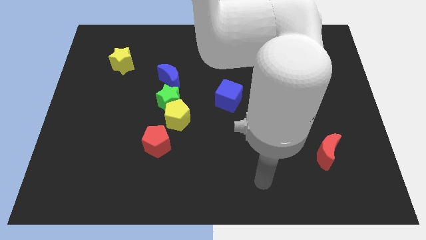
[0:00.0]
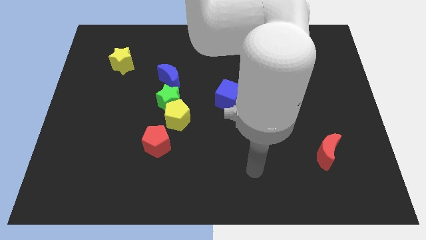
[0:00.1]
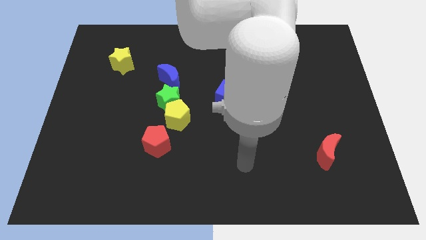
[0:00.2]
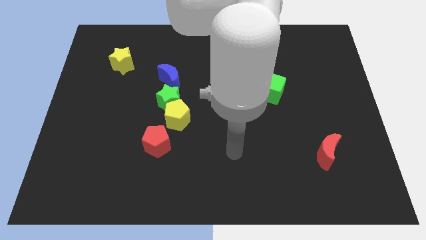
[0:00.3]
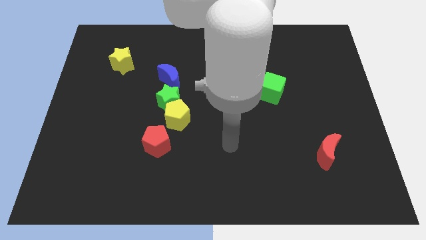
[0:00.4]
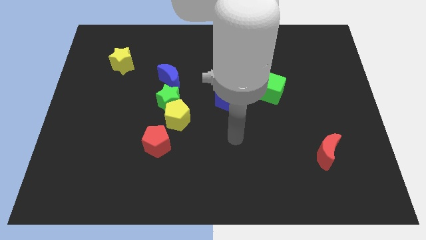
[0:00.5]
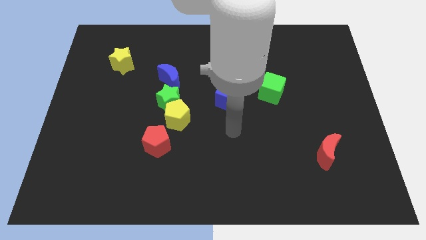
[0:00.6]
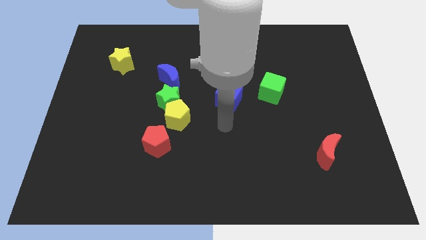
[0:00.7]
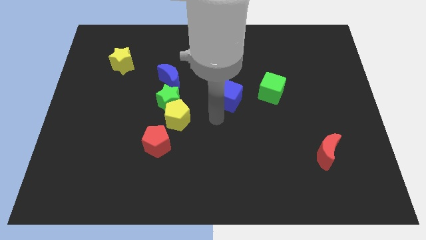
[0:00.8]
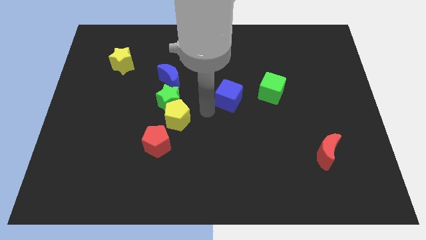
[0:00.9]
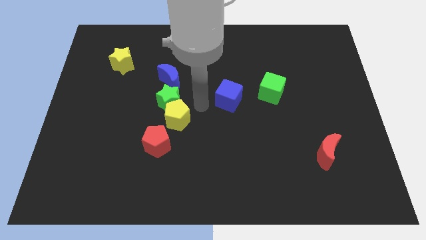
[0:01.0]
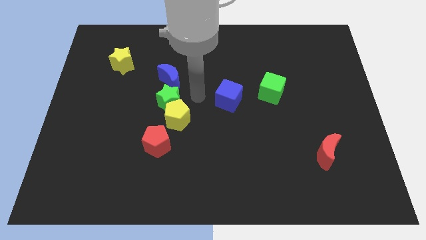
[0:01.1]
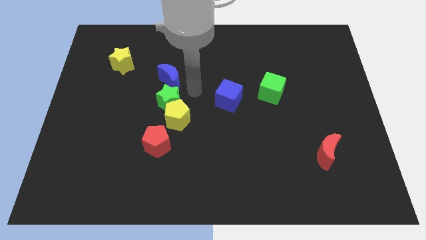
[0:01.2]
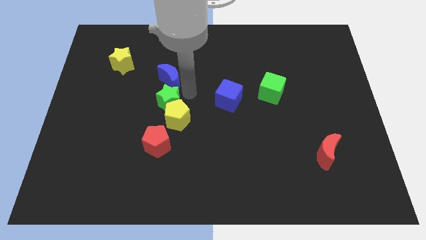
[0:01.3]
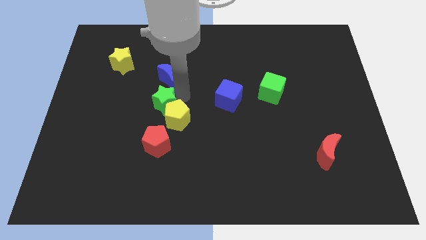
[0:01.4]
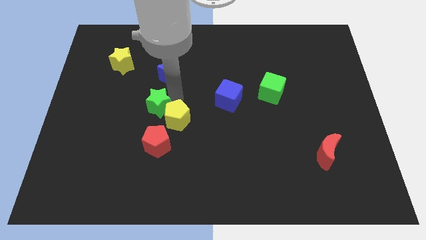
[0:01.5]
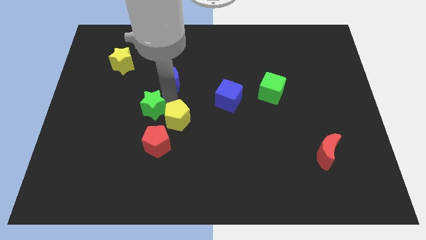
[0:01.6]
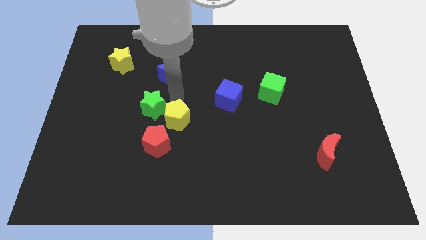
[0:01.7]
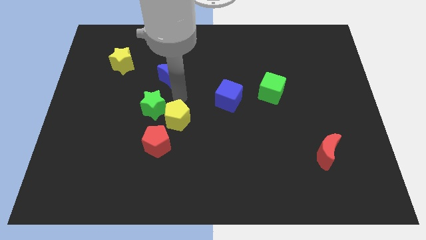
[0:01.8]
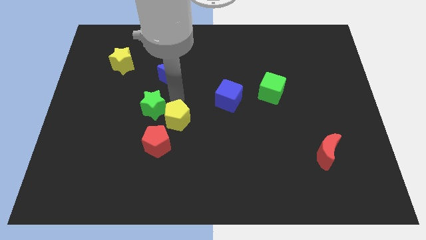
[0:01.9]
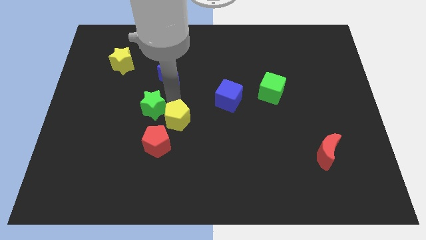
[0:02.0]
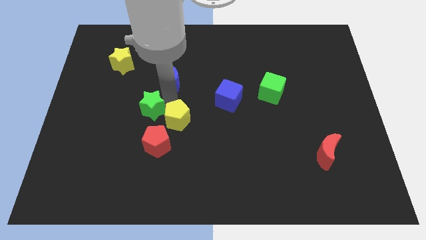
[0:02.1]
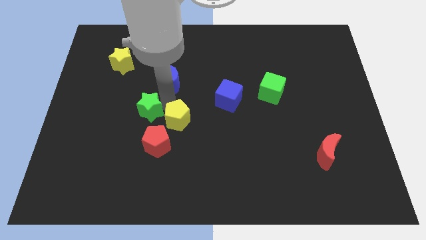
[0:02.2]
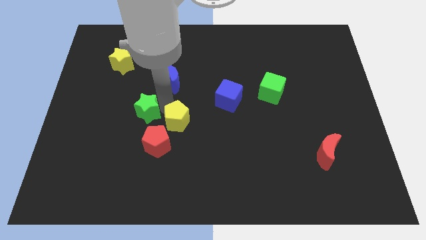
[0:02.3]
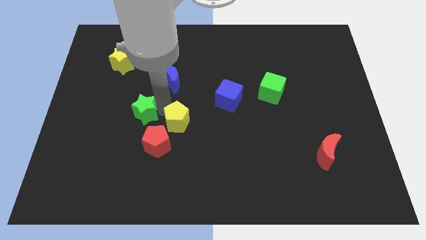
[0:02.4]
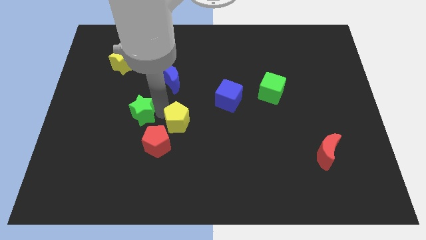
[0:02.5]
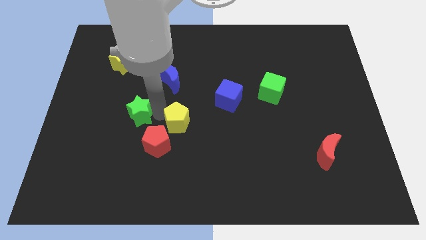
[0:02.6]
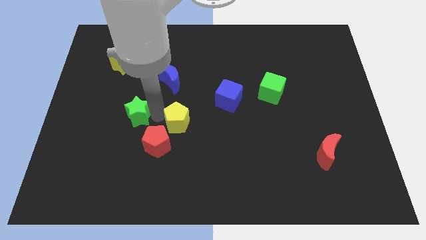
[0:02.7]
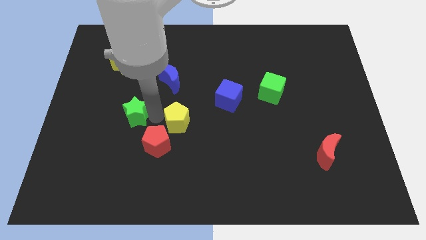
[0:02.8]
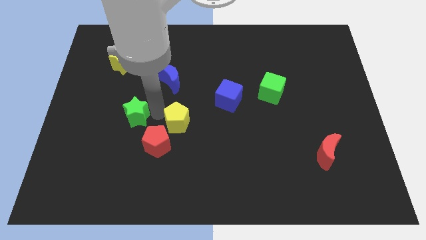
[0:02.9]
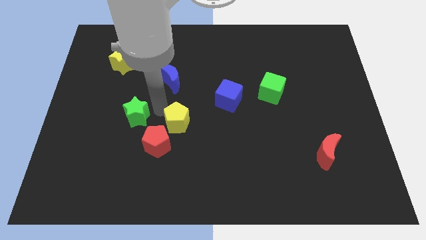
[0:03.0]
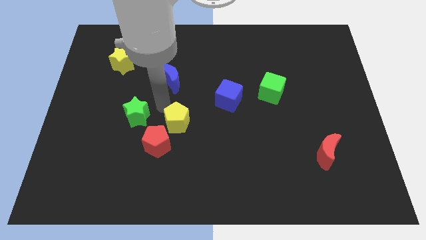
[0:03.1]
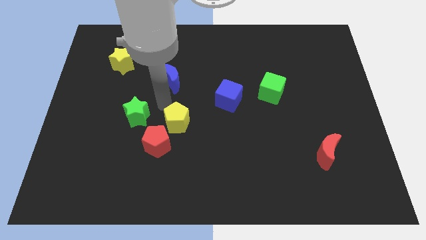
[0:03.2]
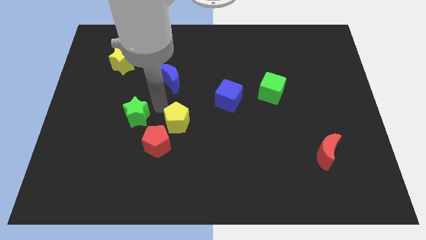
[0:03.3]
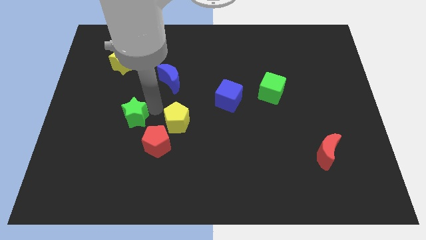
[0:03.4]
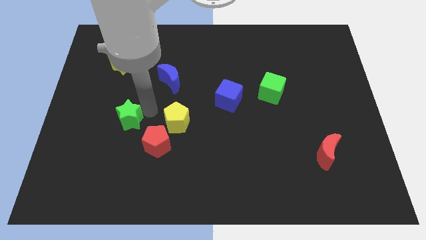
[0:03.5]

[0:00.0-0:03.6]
move the green star away from the yellow pentagon and blue moon

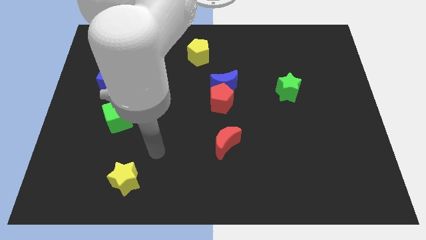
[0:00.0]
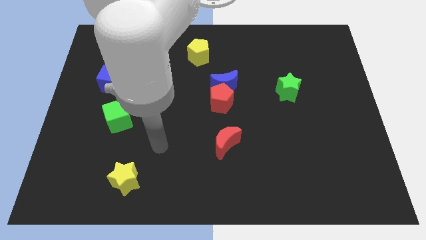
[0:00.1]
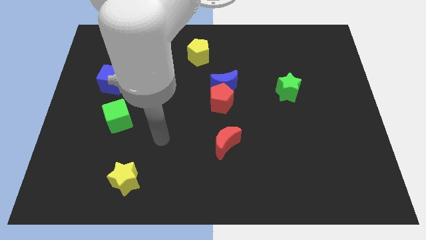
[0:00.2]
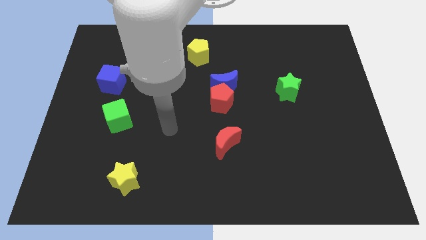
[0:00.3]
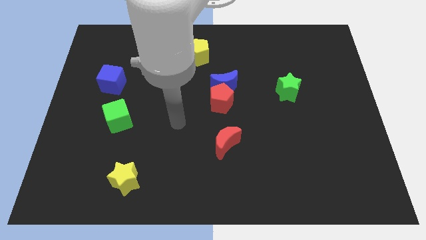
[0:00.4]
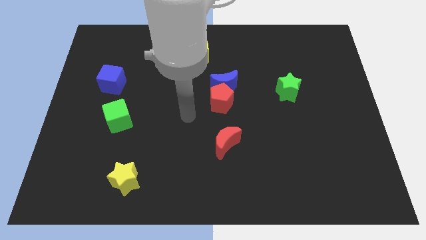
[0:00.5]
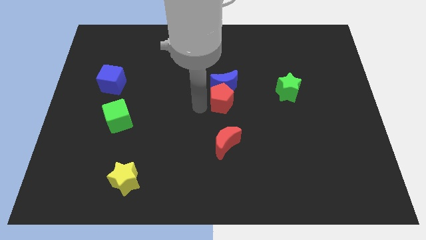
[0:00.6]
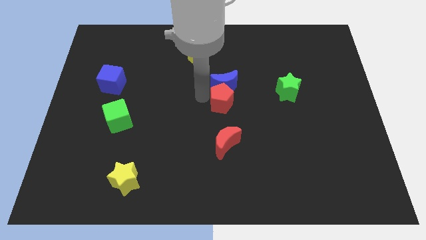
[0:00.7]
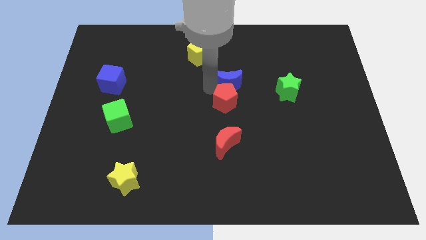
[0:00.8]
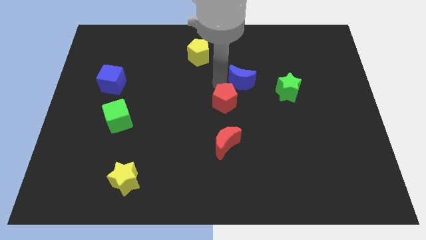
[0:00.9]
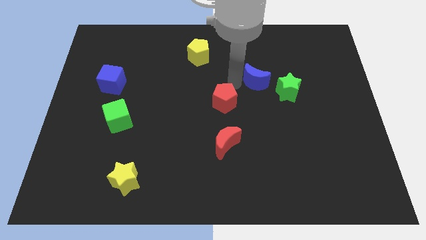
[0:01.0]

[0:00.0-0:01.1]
separate the red pentagon from the blue moon

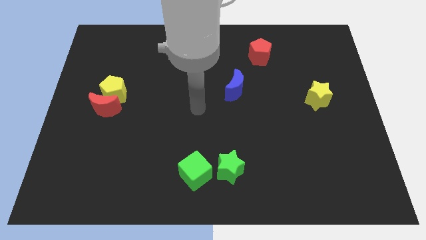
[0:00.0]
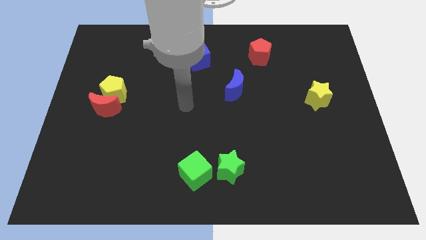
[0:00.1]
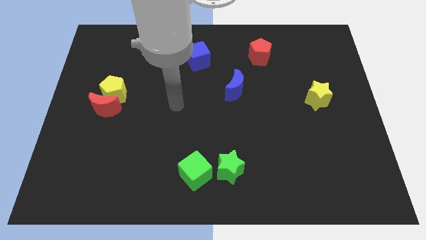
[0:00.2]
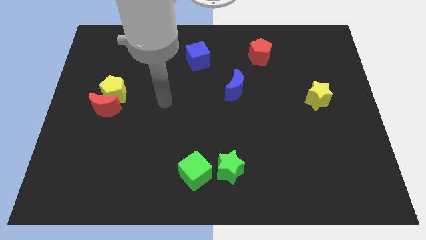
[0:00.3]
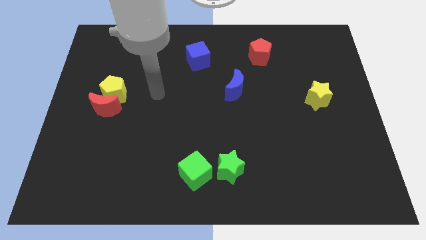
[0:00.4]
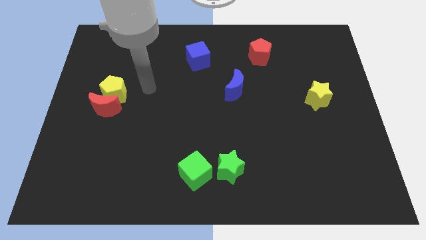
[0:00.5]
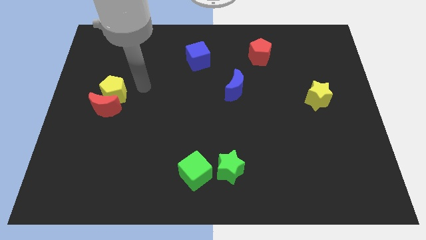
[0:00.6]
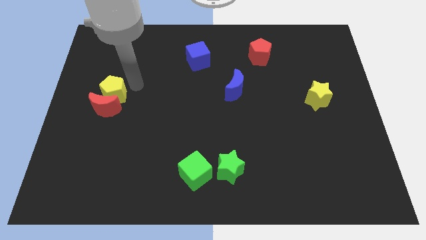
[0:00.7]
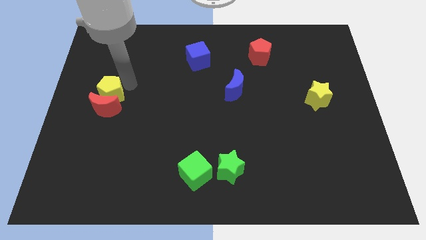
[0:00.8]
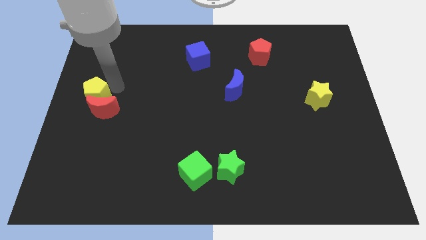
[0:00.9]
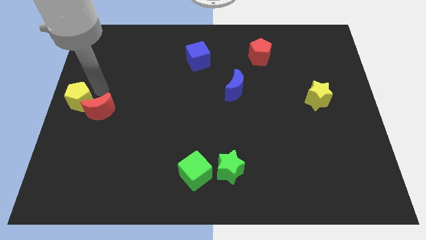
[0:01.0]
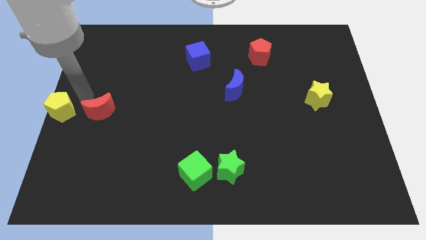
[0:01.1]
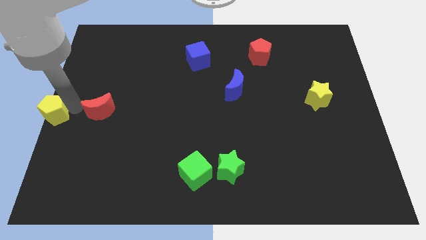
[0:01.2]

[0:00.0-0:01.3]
separate the red moon from the yellow pentagon

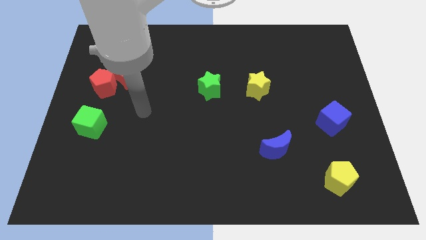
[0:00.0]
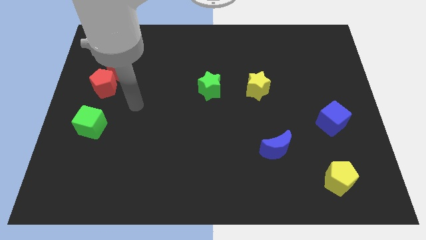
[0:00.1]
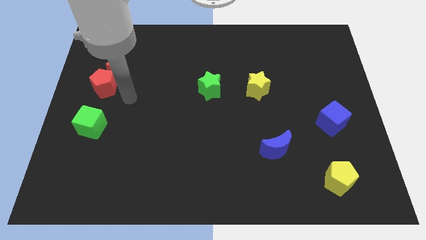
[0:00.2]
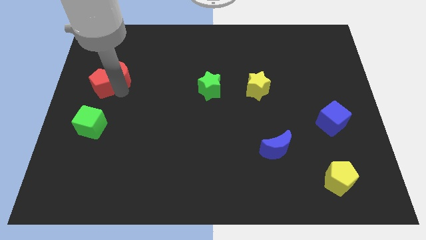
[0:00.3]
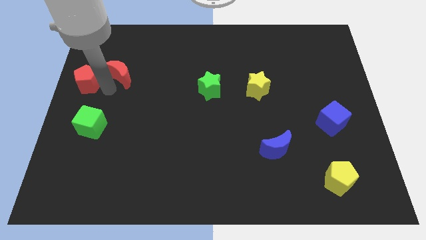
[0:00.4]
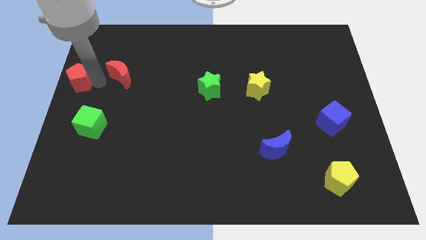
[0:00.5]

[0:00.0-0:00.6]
move the red moon away from the red pentagon

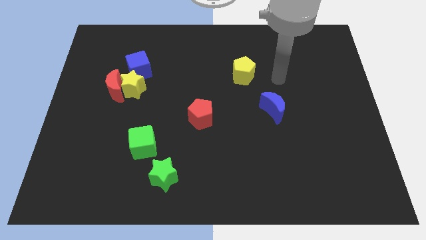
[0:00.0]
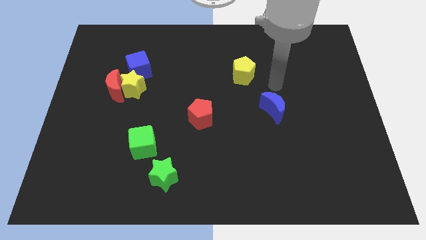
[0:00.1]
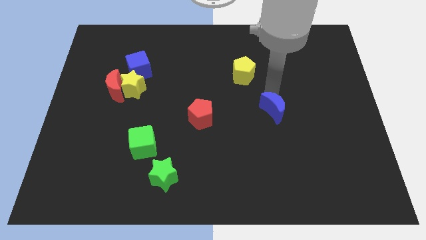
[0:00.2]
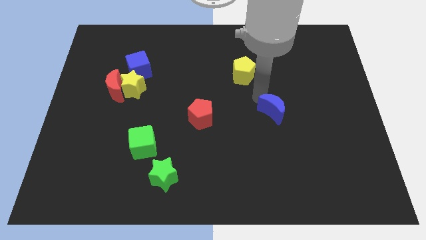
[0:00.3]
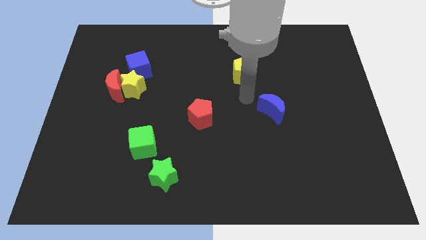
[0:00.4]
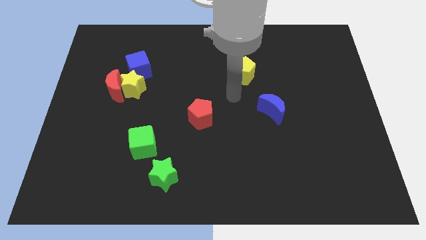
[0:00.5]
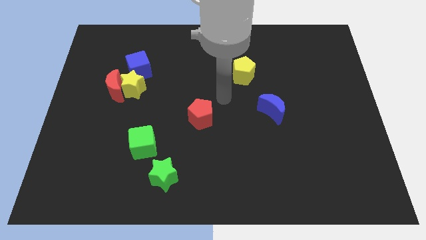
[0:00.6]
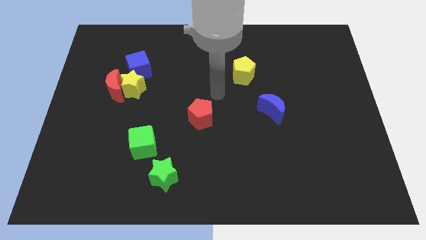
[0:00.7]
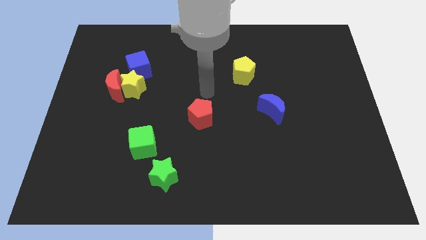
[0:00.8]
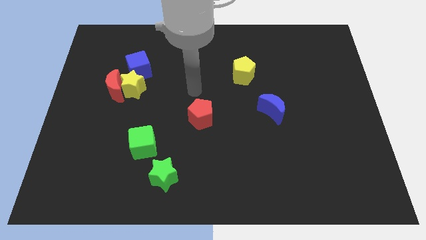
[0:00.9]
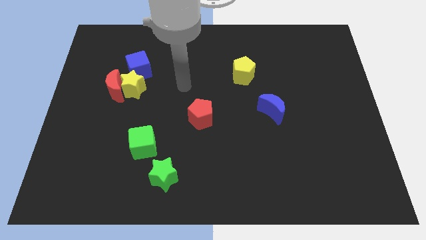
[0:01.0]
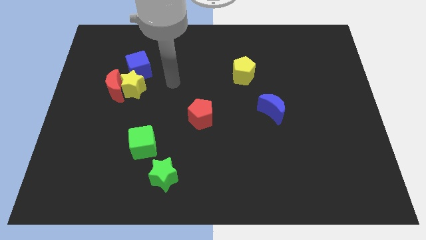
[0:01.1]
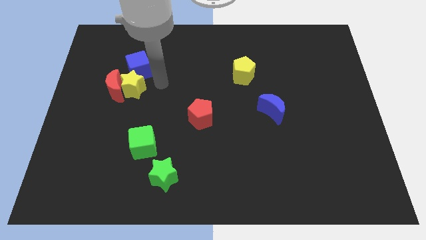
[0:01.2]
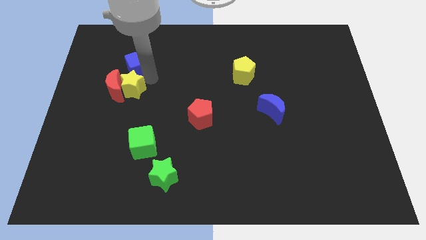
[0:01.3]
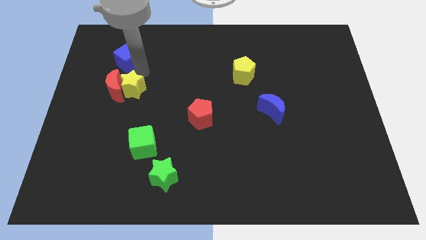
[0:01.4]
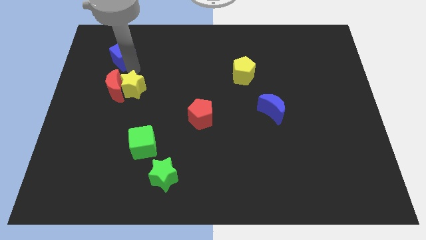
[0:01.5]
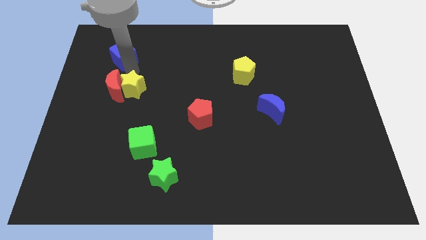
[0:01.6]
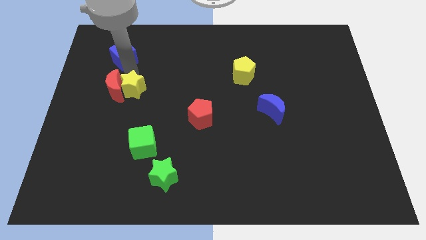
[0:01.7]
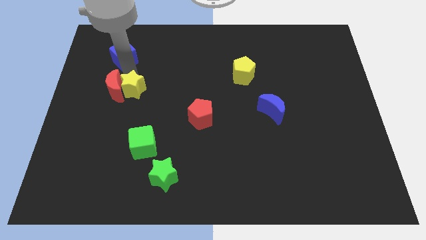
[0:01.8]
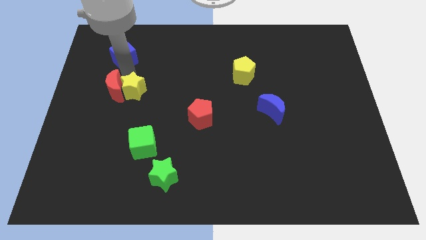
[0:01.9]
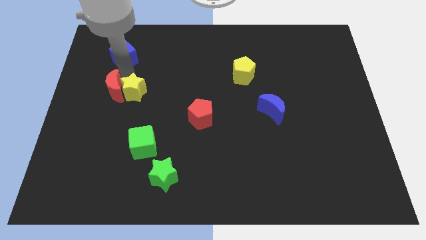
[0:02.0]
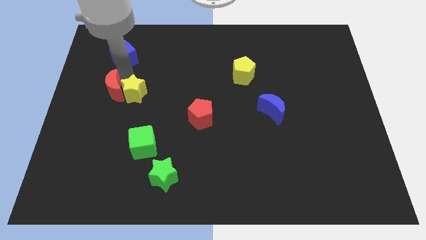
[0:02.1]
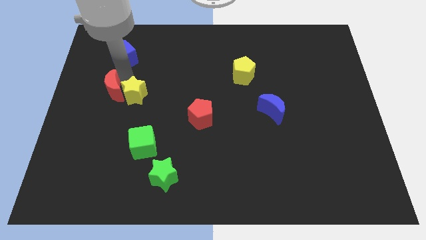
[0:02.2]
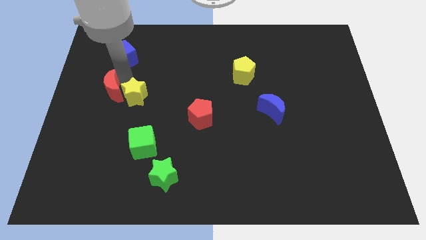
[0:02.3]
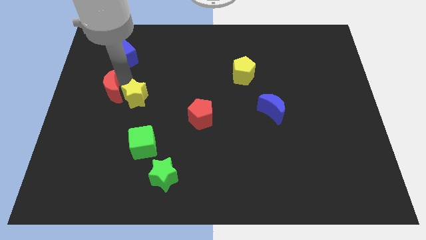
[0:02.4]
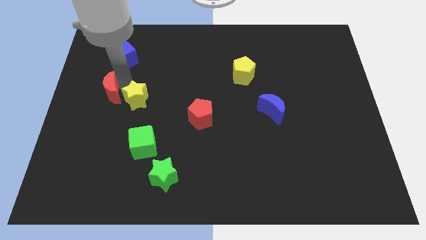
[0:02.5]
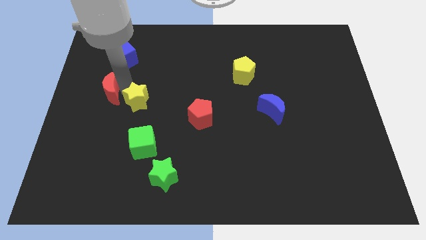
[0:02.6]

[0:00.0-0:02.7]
separate the yellow star from the red moon and blue cube
